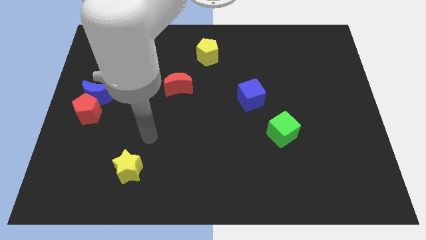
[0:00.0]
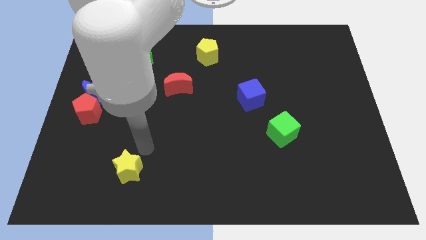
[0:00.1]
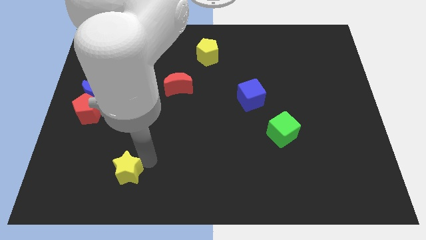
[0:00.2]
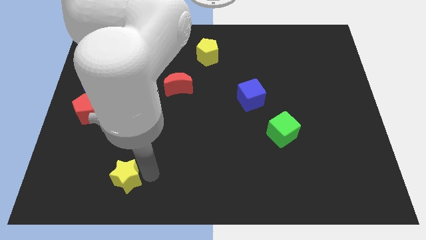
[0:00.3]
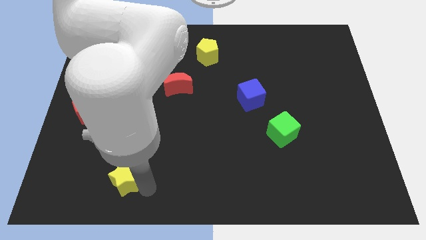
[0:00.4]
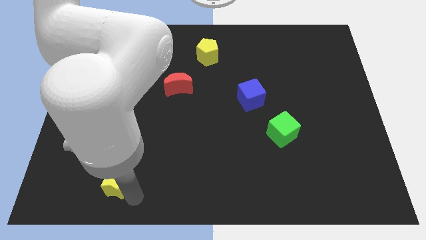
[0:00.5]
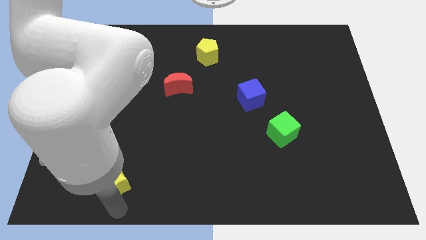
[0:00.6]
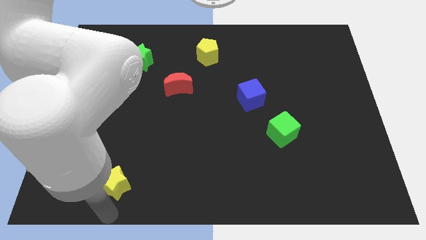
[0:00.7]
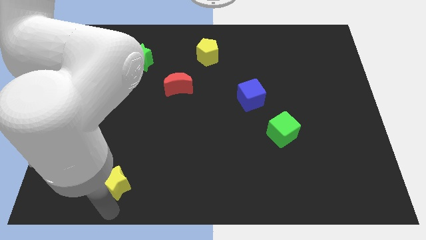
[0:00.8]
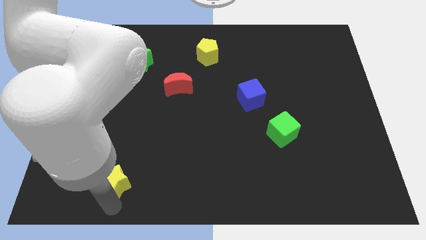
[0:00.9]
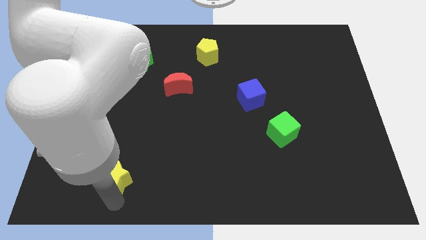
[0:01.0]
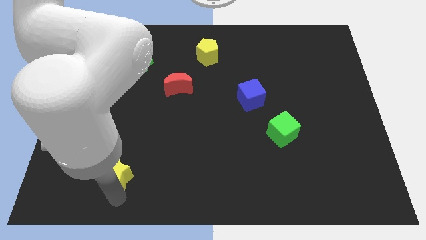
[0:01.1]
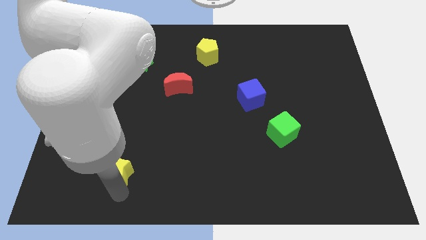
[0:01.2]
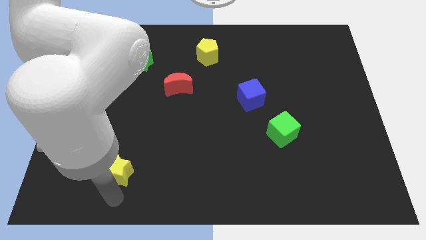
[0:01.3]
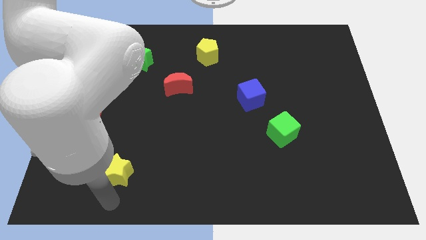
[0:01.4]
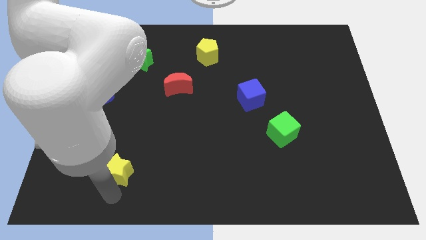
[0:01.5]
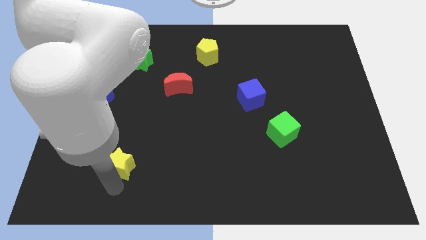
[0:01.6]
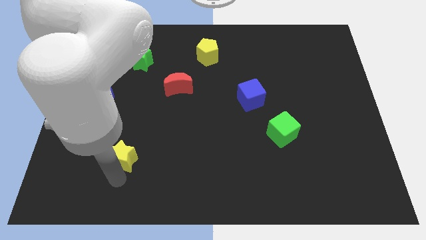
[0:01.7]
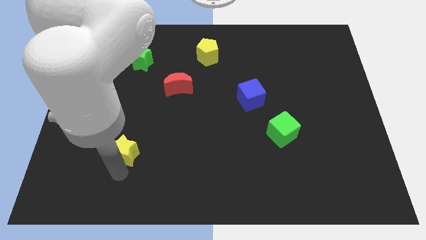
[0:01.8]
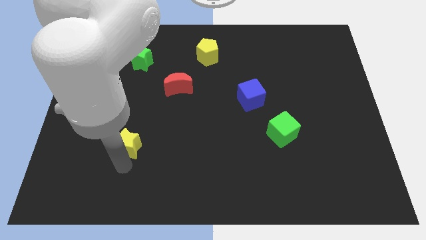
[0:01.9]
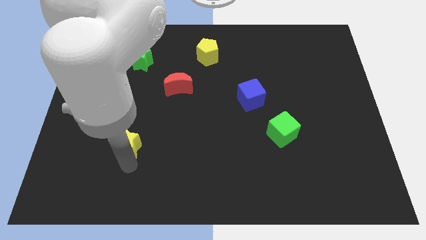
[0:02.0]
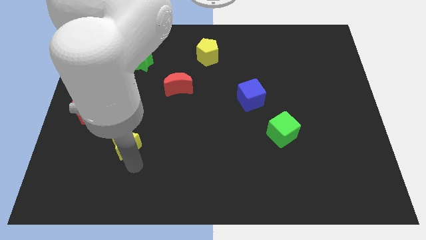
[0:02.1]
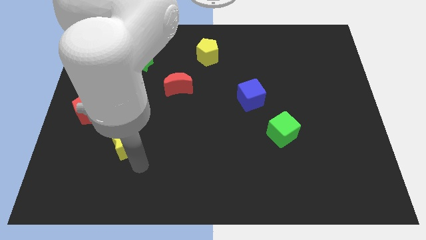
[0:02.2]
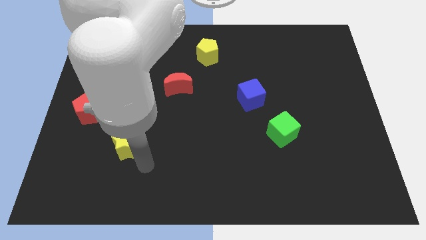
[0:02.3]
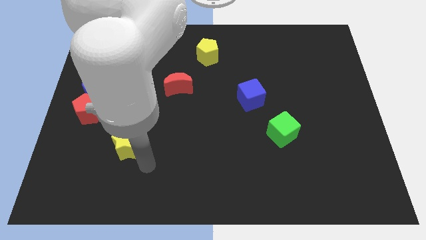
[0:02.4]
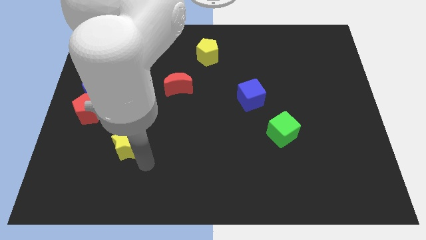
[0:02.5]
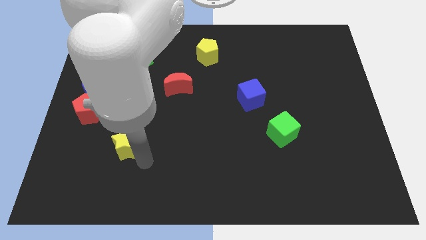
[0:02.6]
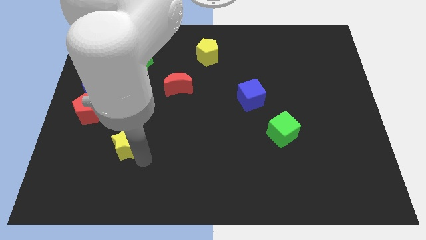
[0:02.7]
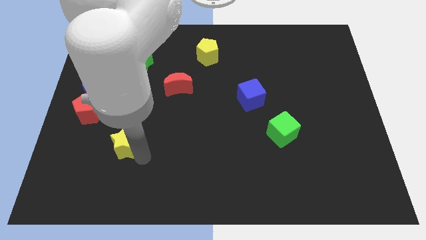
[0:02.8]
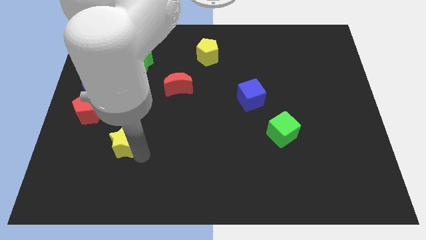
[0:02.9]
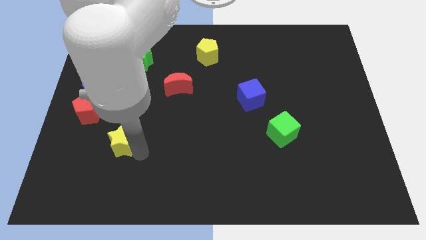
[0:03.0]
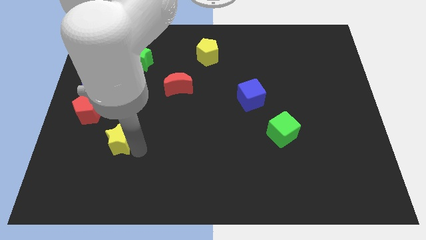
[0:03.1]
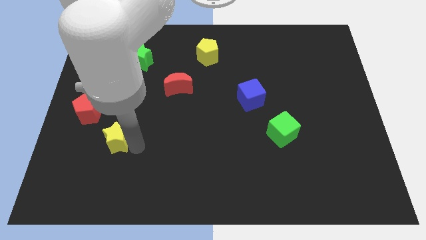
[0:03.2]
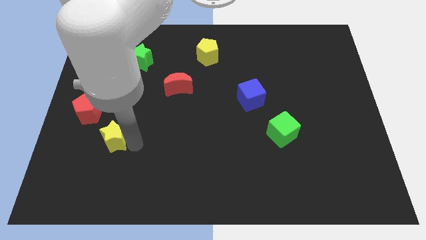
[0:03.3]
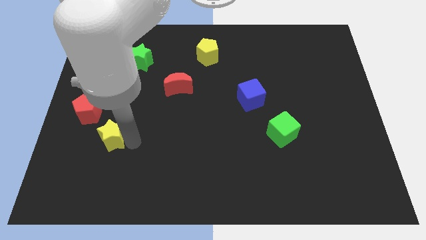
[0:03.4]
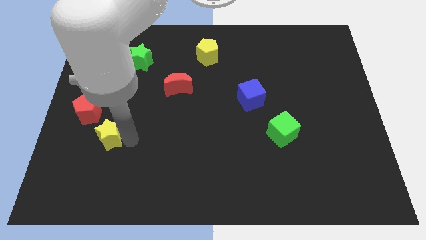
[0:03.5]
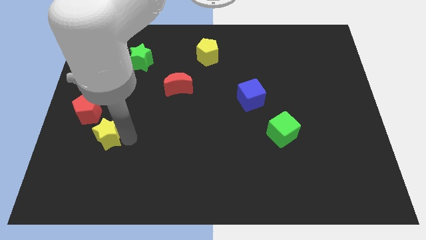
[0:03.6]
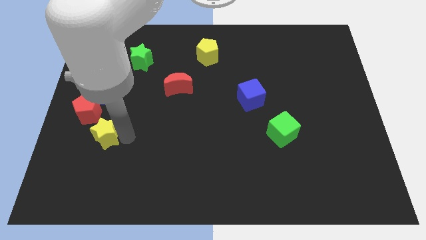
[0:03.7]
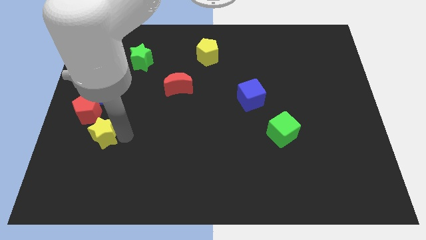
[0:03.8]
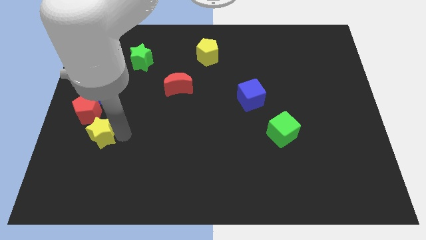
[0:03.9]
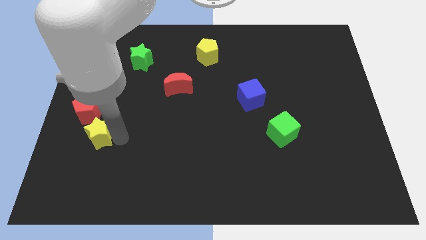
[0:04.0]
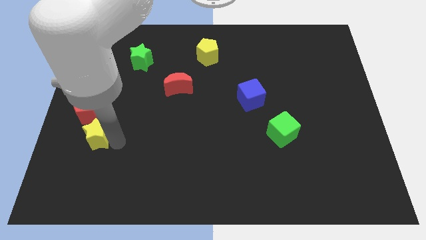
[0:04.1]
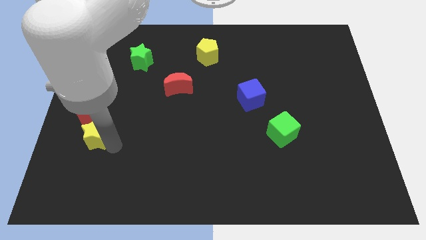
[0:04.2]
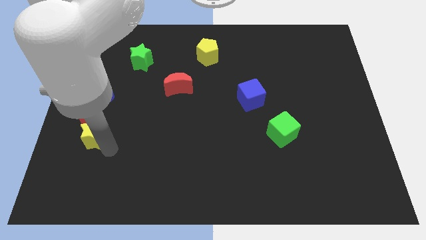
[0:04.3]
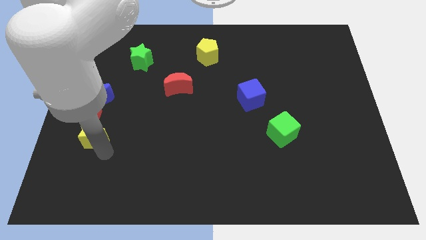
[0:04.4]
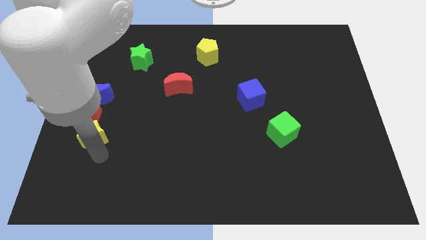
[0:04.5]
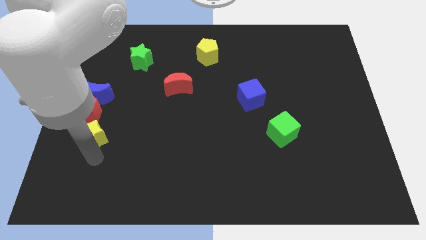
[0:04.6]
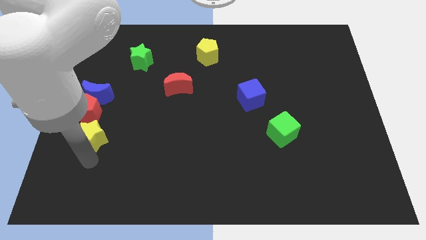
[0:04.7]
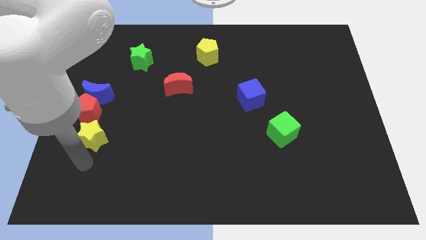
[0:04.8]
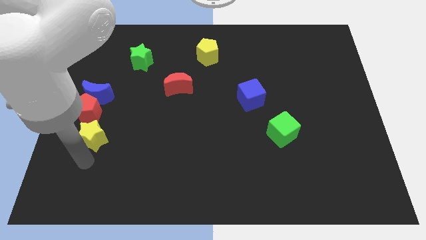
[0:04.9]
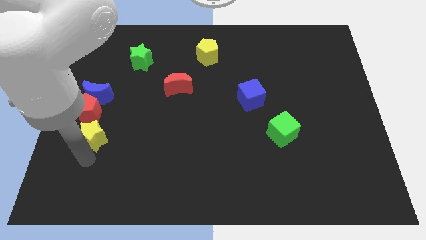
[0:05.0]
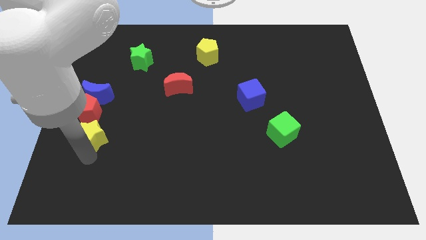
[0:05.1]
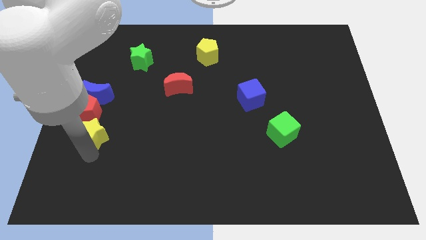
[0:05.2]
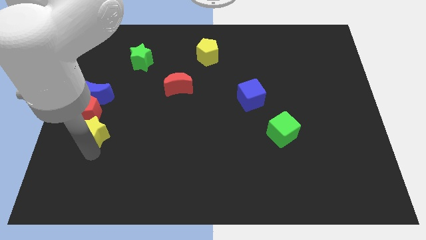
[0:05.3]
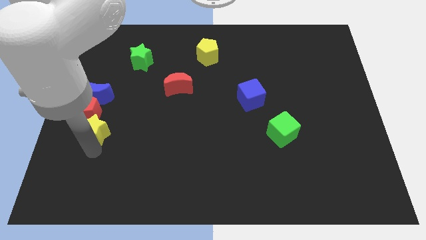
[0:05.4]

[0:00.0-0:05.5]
slide the yellow star to the red pentagon

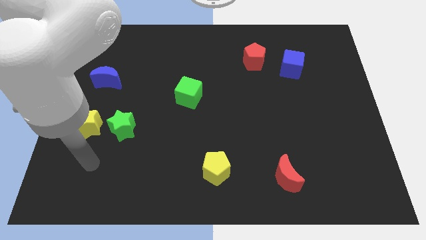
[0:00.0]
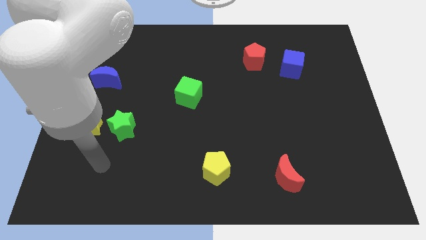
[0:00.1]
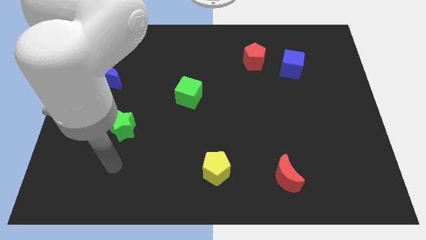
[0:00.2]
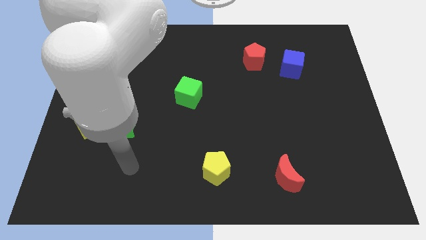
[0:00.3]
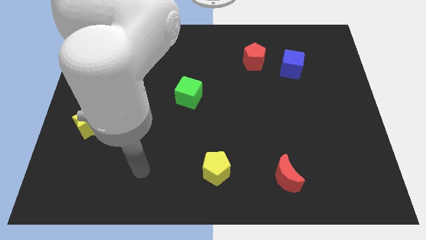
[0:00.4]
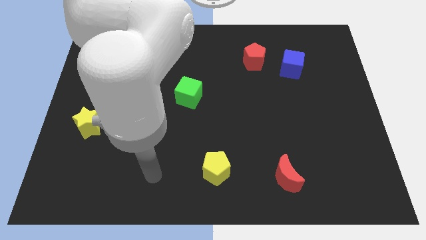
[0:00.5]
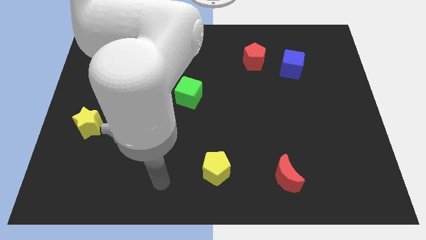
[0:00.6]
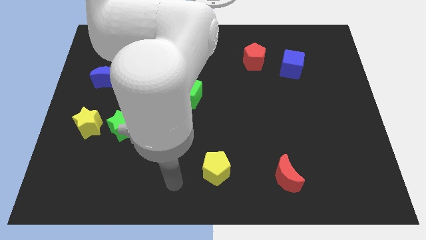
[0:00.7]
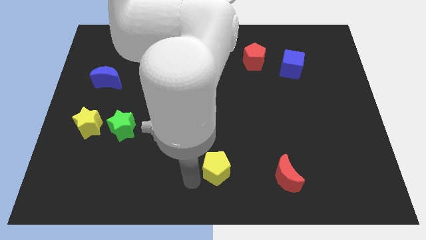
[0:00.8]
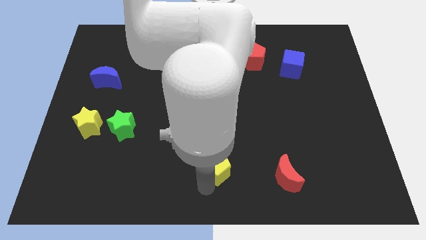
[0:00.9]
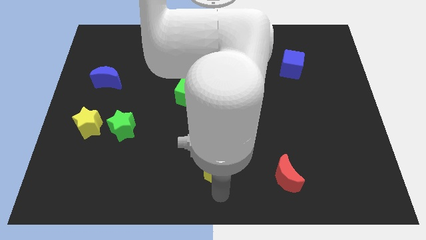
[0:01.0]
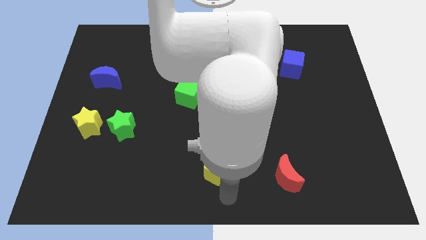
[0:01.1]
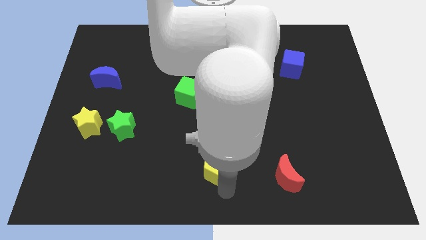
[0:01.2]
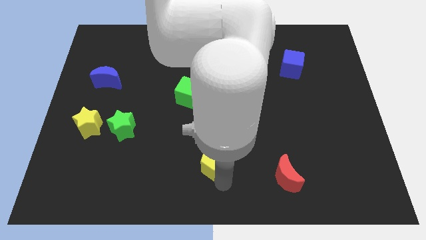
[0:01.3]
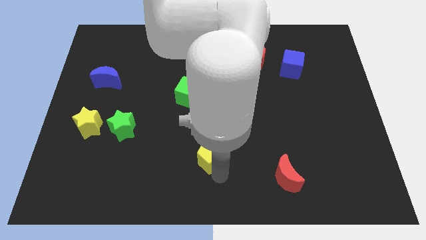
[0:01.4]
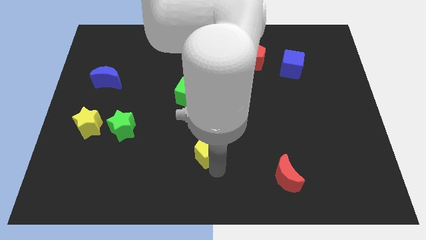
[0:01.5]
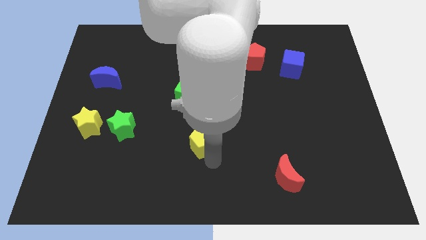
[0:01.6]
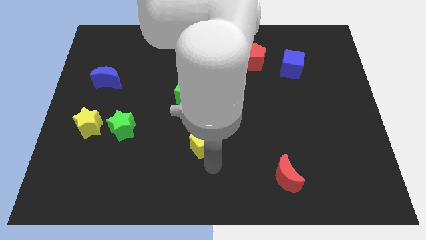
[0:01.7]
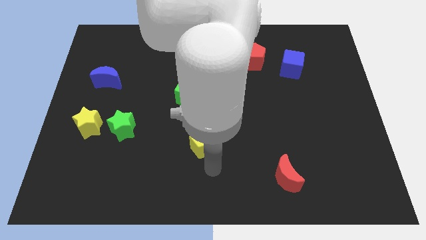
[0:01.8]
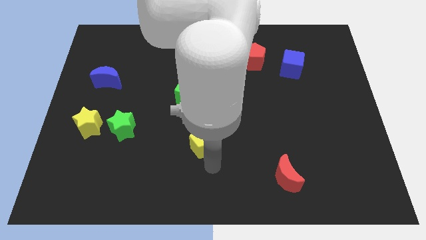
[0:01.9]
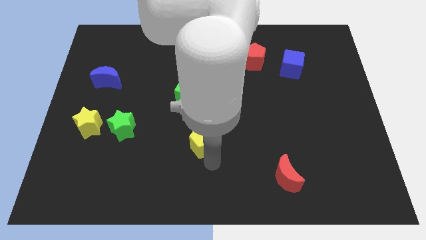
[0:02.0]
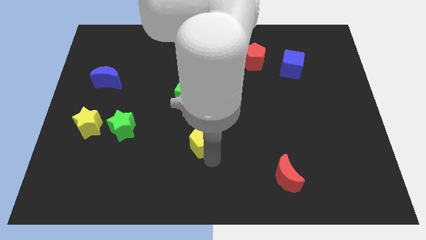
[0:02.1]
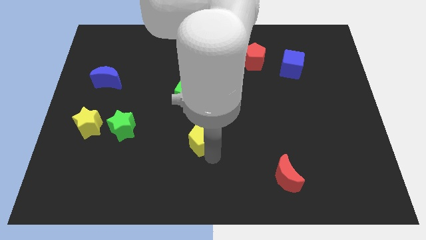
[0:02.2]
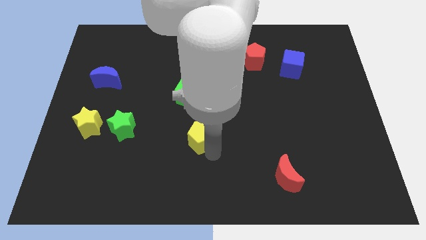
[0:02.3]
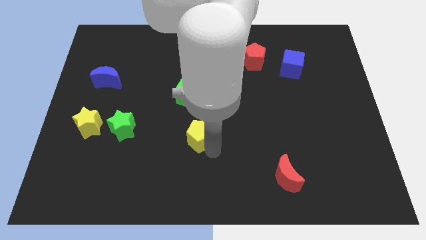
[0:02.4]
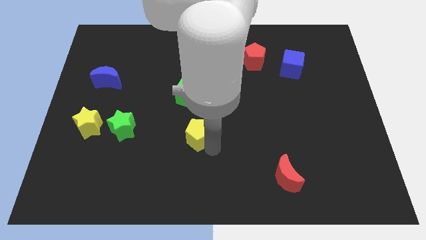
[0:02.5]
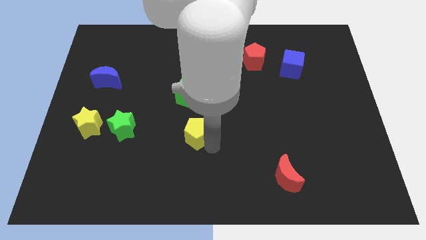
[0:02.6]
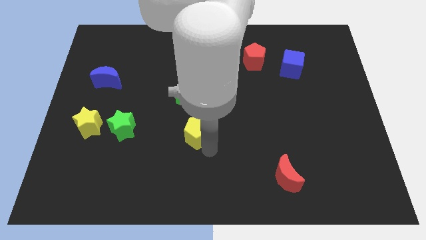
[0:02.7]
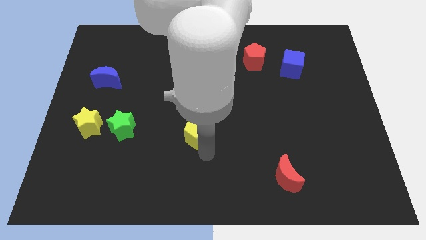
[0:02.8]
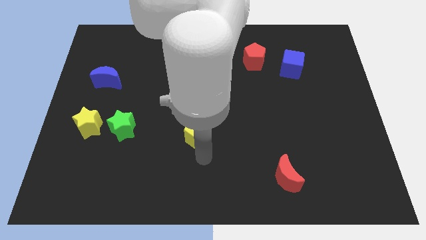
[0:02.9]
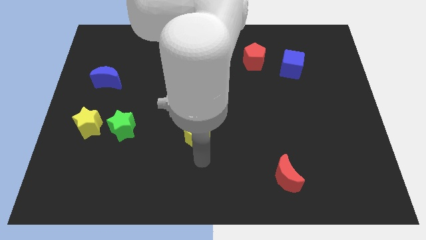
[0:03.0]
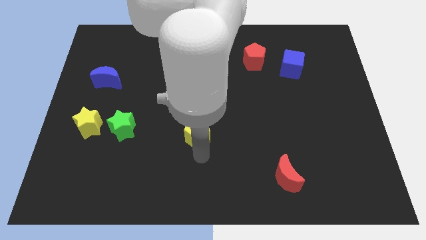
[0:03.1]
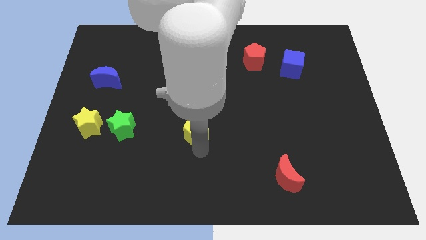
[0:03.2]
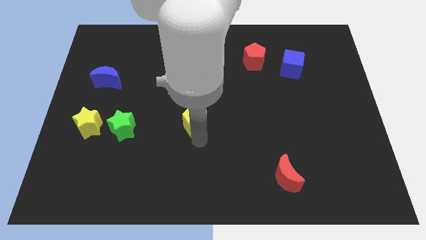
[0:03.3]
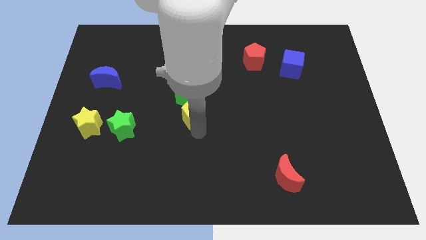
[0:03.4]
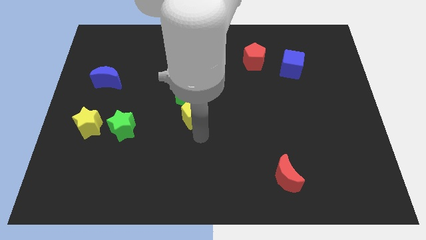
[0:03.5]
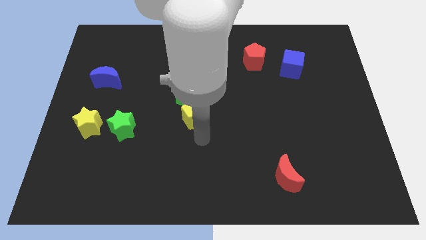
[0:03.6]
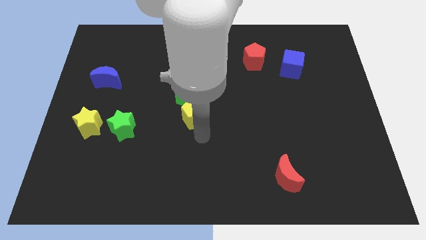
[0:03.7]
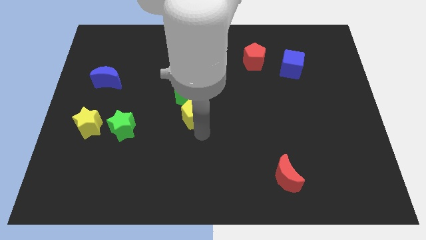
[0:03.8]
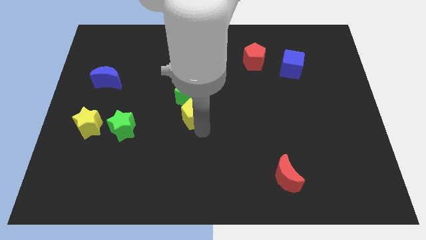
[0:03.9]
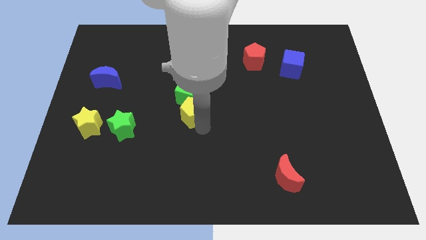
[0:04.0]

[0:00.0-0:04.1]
put the yellow pentagon close to the green cube
